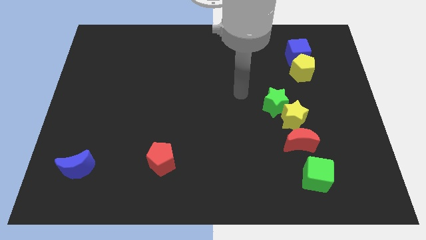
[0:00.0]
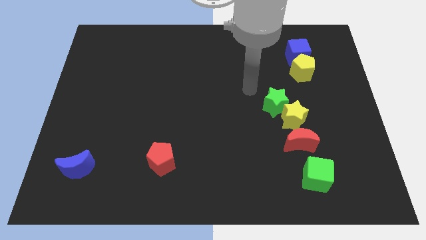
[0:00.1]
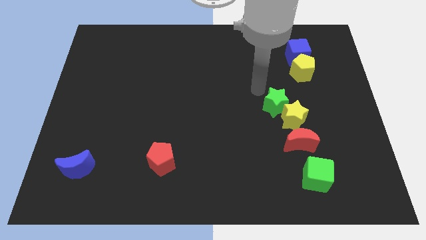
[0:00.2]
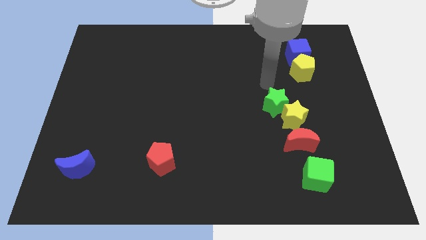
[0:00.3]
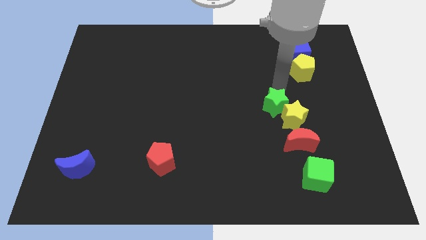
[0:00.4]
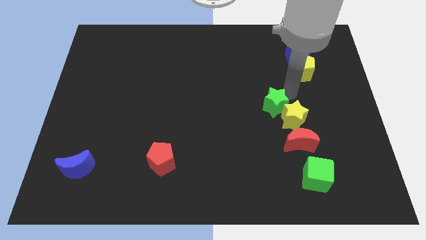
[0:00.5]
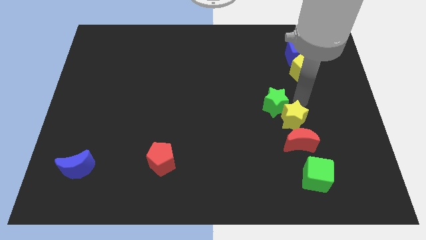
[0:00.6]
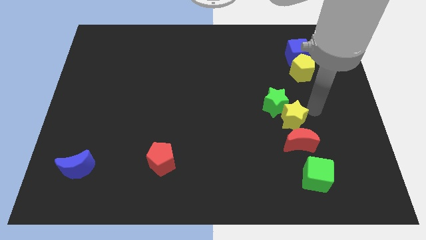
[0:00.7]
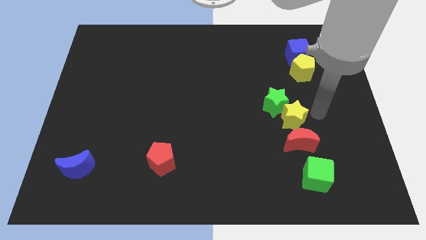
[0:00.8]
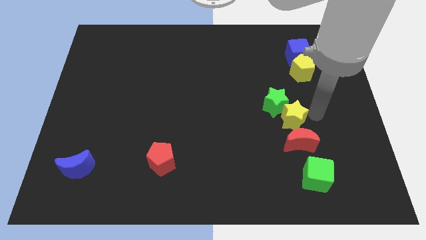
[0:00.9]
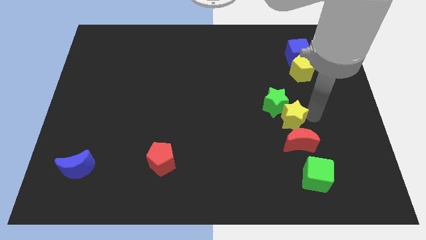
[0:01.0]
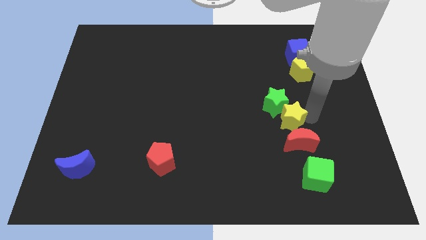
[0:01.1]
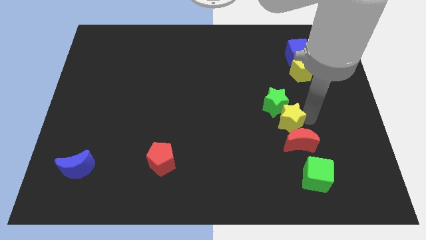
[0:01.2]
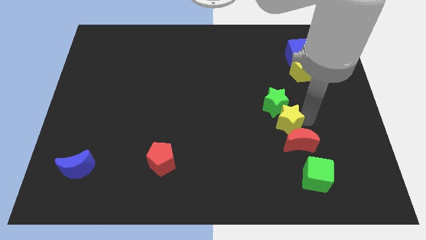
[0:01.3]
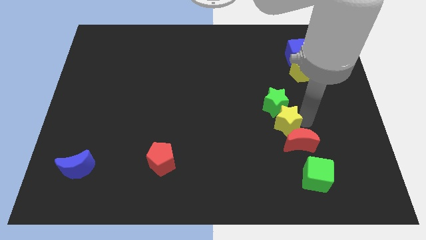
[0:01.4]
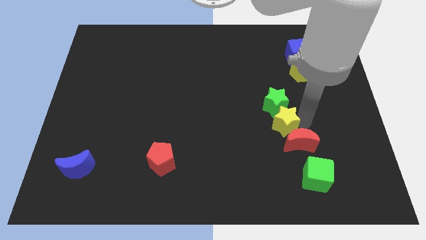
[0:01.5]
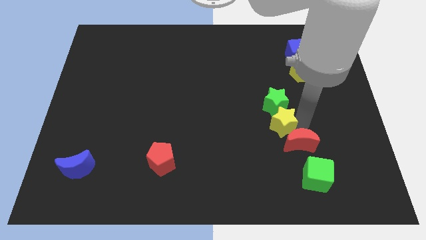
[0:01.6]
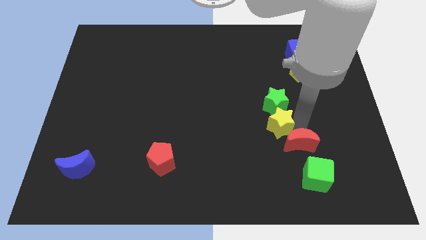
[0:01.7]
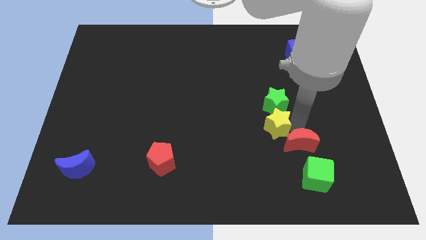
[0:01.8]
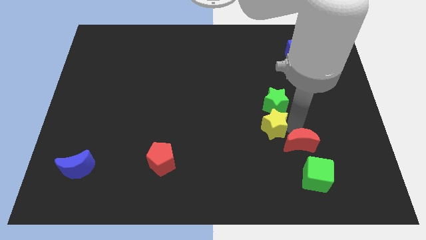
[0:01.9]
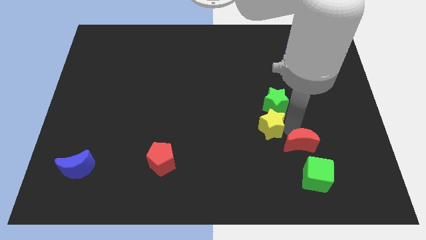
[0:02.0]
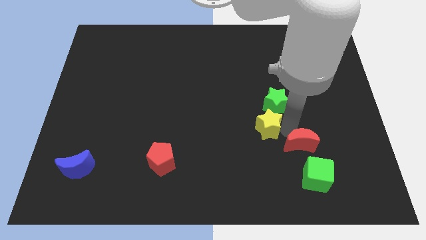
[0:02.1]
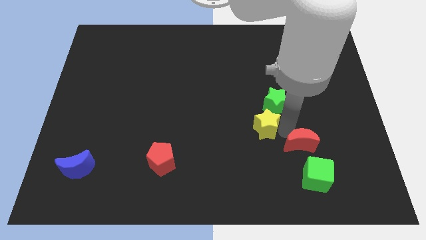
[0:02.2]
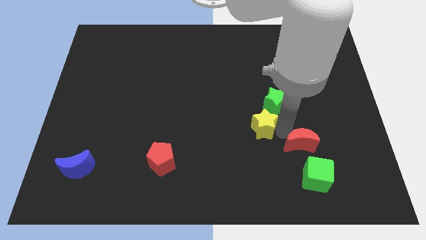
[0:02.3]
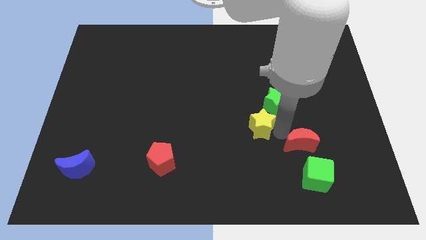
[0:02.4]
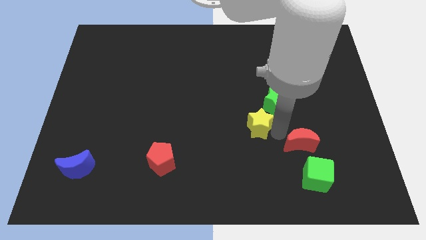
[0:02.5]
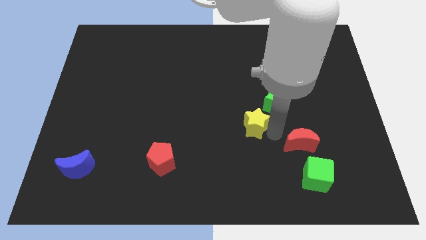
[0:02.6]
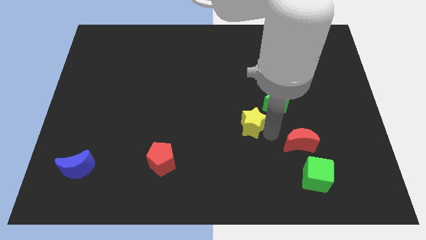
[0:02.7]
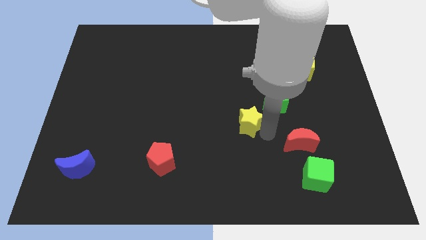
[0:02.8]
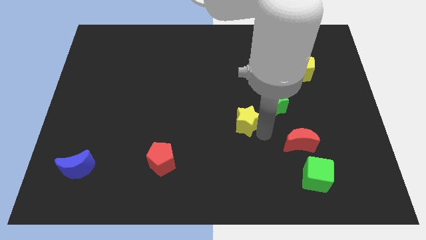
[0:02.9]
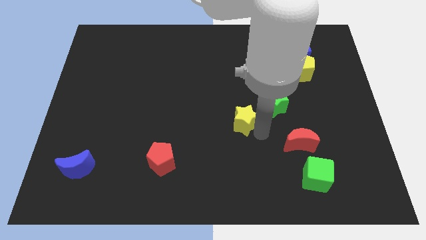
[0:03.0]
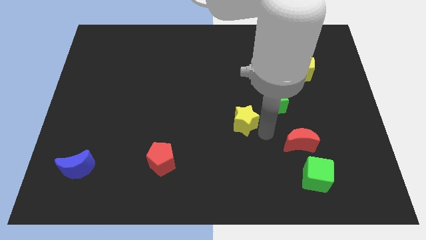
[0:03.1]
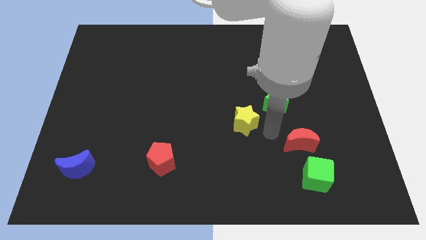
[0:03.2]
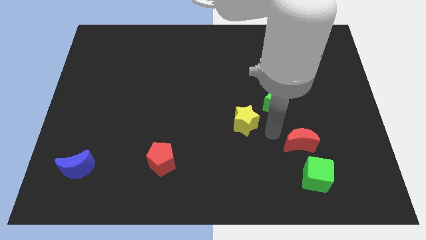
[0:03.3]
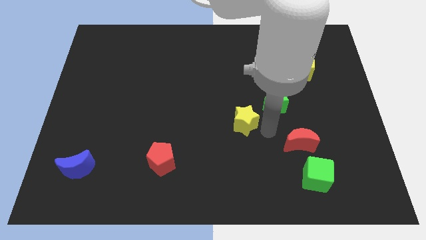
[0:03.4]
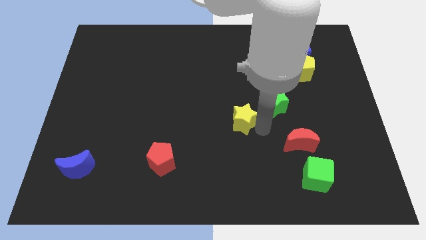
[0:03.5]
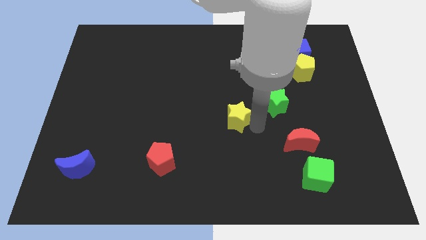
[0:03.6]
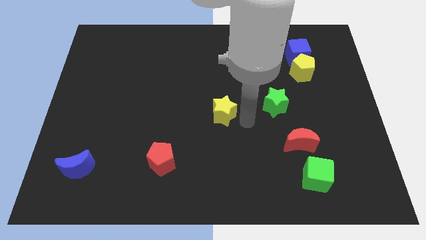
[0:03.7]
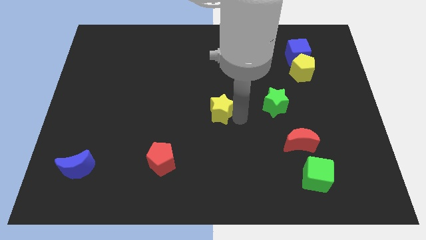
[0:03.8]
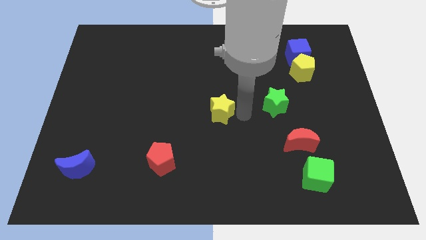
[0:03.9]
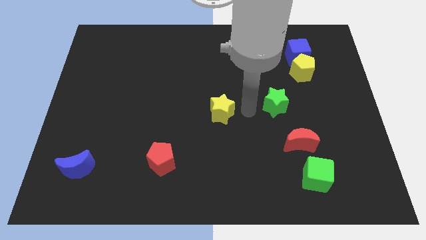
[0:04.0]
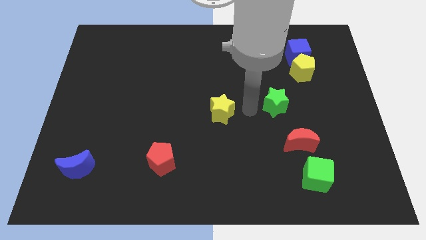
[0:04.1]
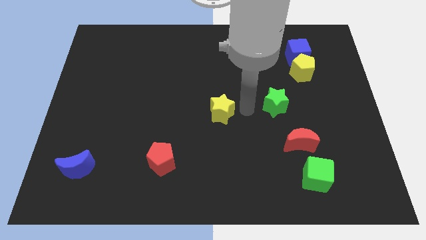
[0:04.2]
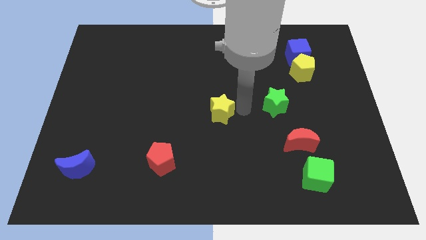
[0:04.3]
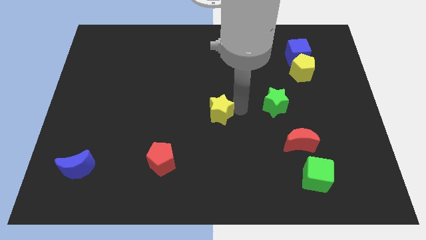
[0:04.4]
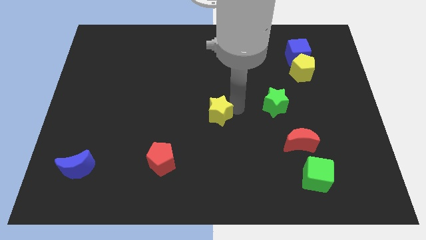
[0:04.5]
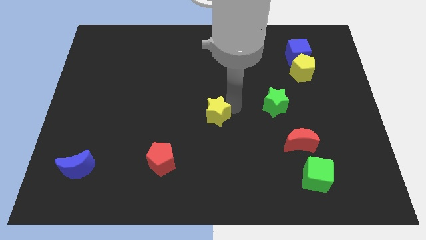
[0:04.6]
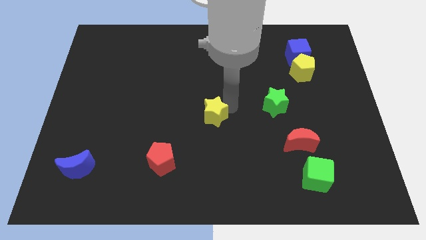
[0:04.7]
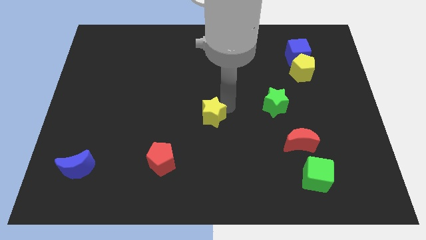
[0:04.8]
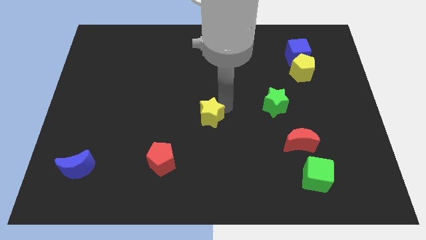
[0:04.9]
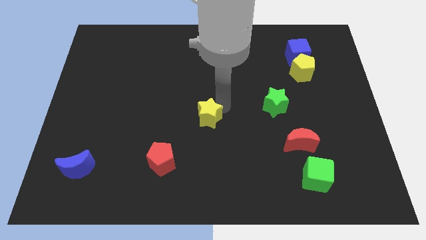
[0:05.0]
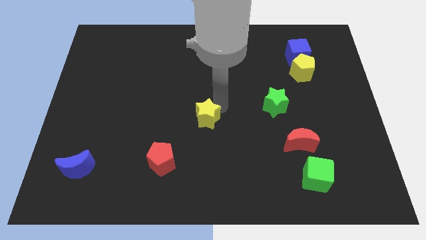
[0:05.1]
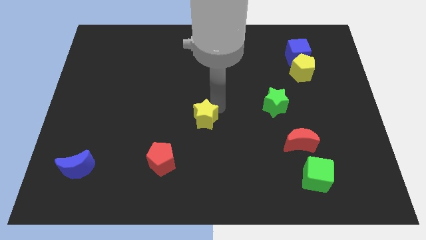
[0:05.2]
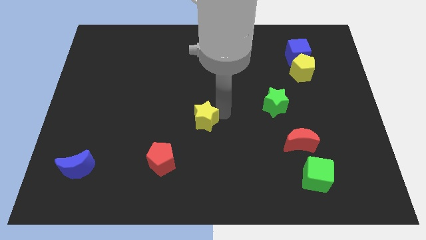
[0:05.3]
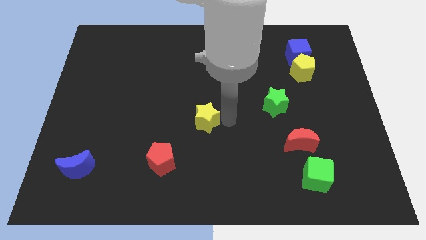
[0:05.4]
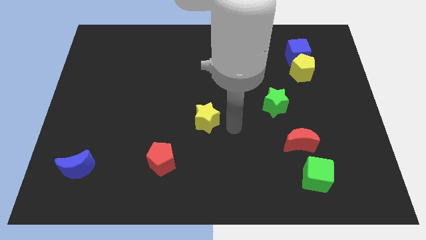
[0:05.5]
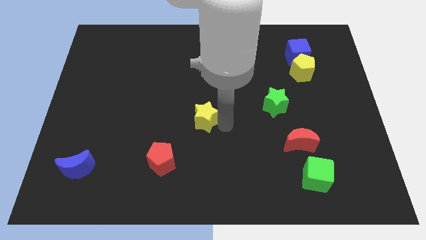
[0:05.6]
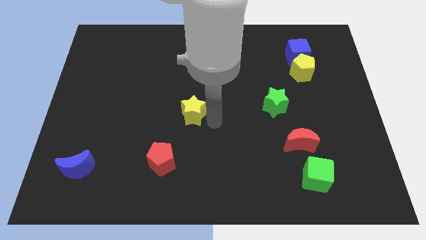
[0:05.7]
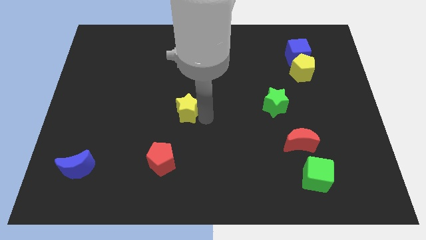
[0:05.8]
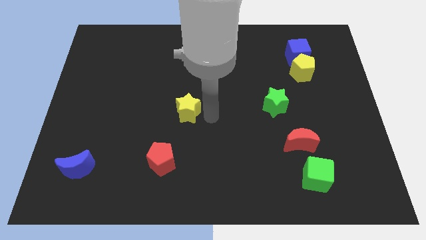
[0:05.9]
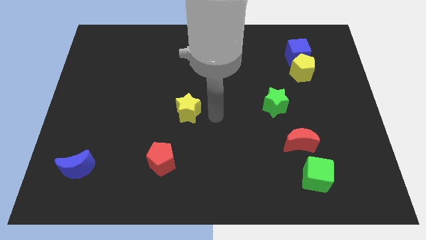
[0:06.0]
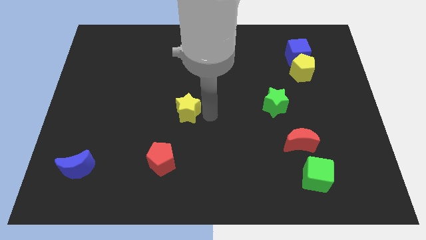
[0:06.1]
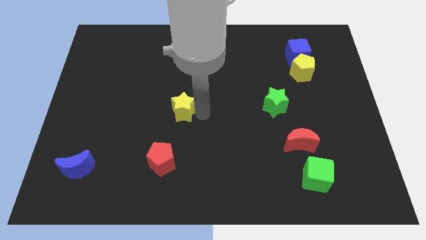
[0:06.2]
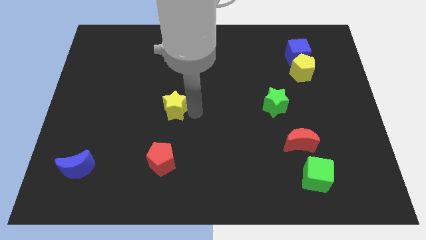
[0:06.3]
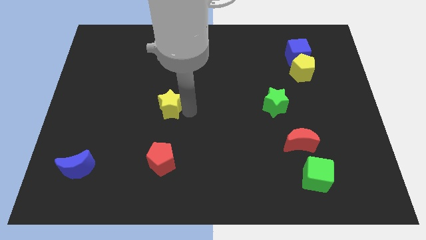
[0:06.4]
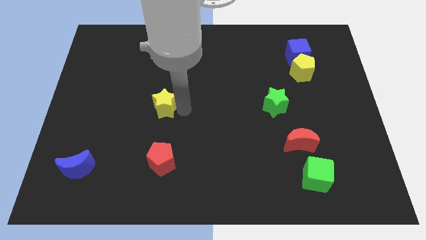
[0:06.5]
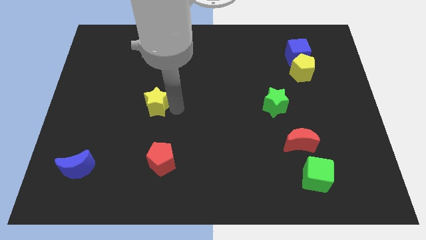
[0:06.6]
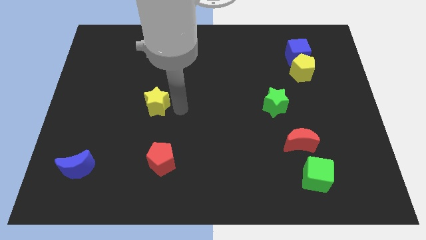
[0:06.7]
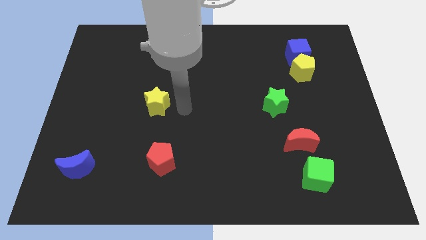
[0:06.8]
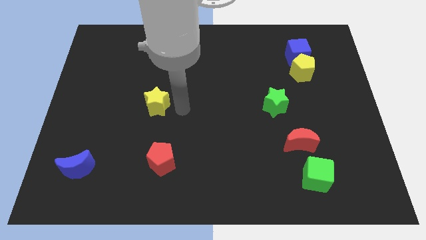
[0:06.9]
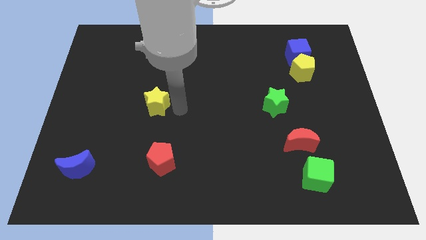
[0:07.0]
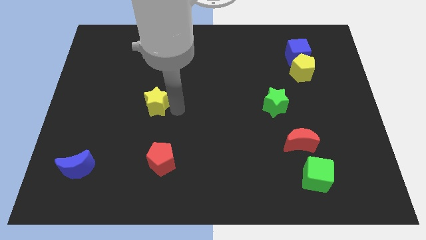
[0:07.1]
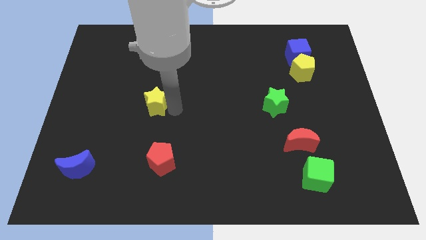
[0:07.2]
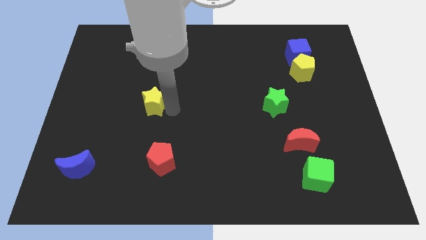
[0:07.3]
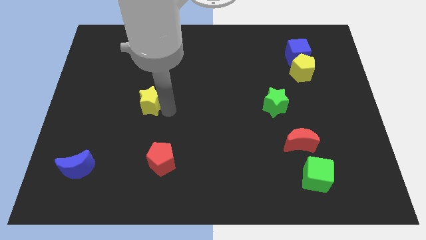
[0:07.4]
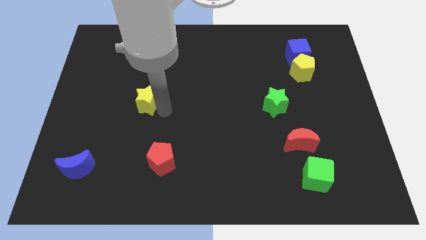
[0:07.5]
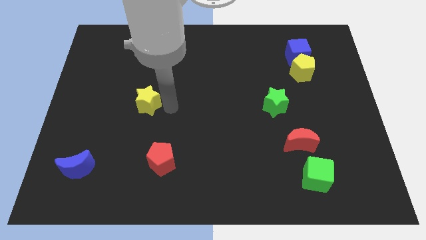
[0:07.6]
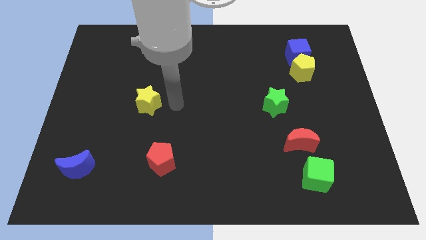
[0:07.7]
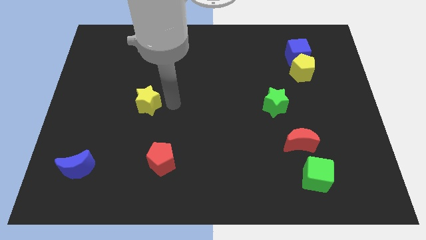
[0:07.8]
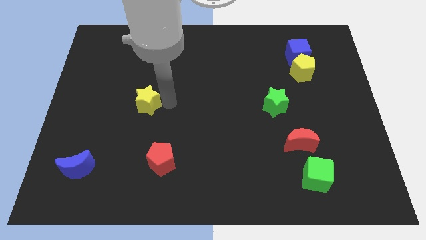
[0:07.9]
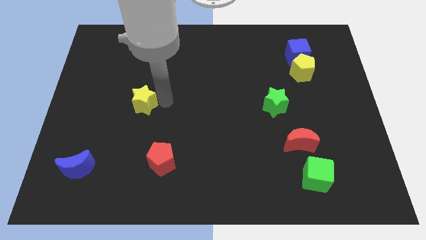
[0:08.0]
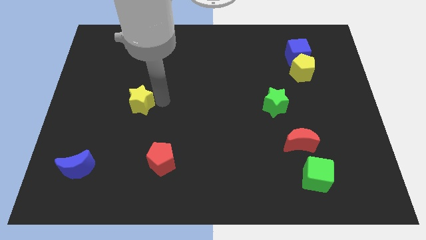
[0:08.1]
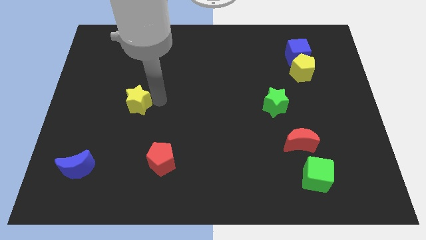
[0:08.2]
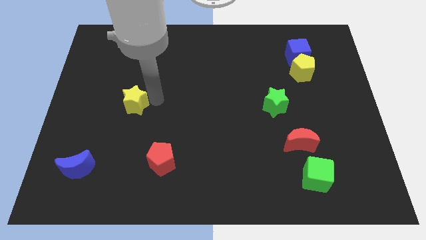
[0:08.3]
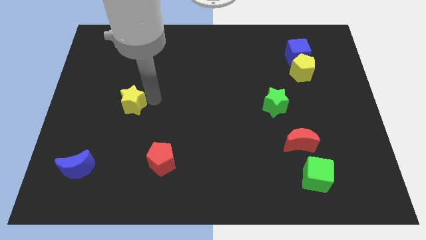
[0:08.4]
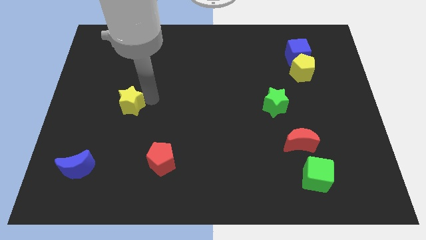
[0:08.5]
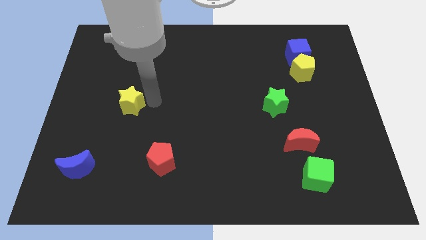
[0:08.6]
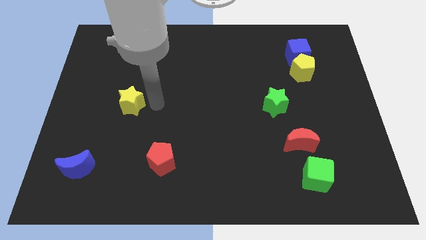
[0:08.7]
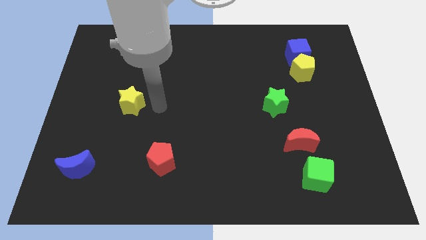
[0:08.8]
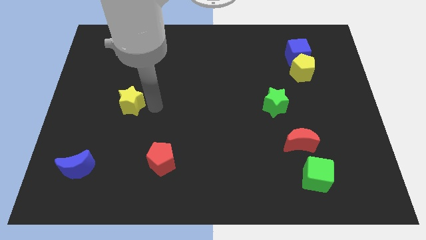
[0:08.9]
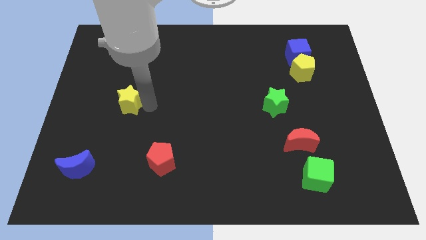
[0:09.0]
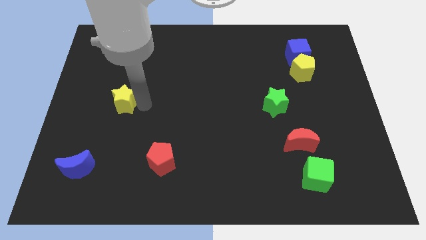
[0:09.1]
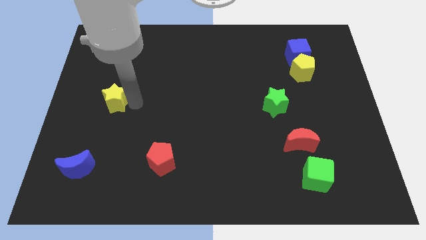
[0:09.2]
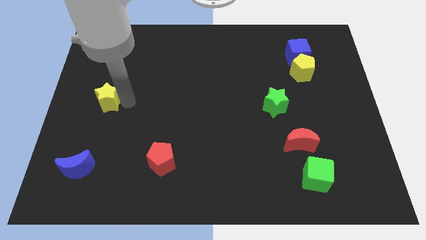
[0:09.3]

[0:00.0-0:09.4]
put the yellow star to the center left
